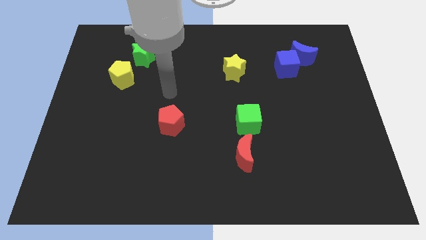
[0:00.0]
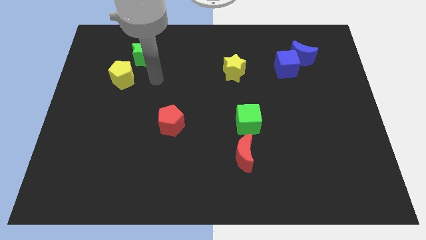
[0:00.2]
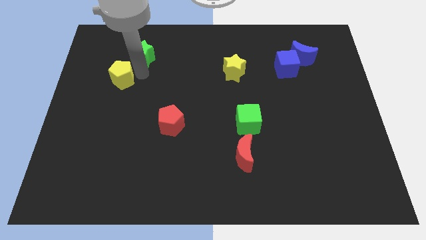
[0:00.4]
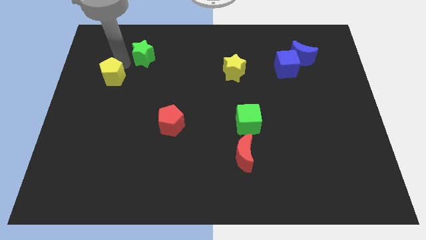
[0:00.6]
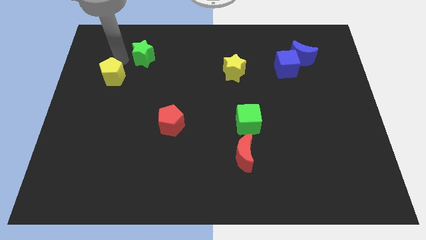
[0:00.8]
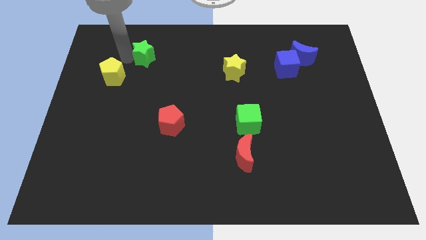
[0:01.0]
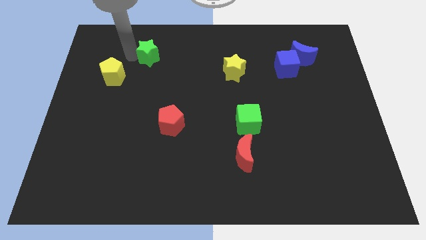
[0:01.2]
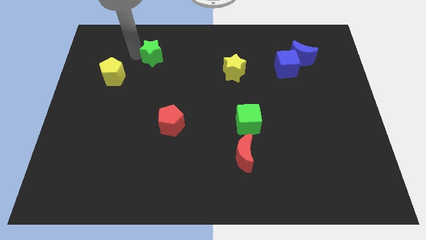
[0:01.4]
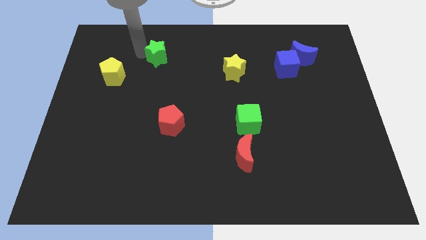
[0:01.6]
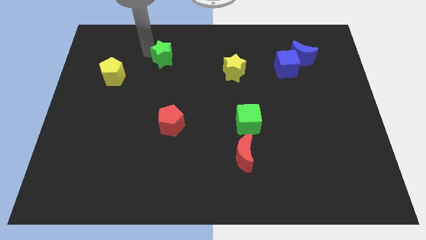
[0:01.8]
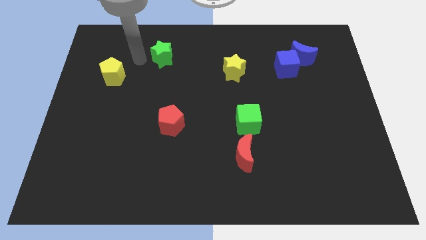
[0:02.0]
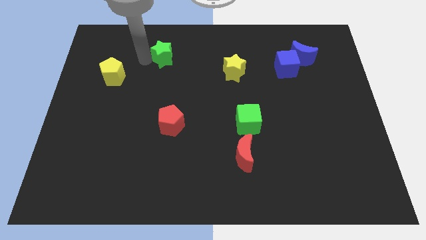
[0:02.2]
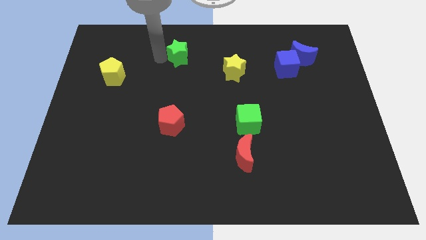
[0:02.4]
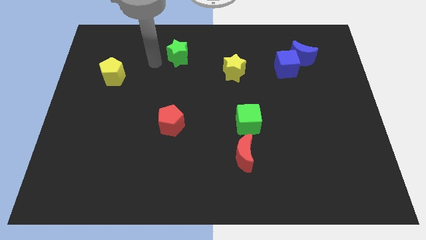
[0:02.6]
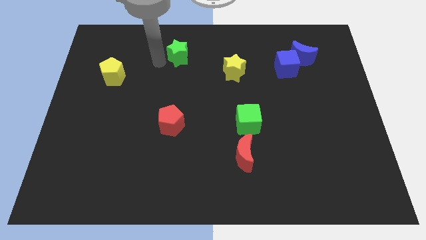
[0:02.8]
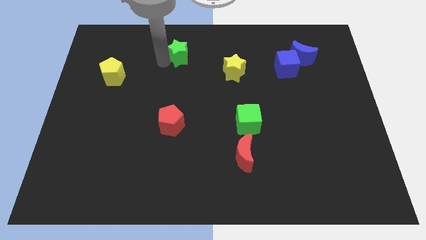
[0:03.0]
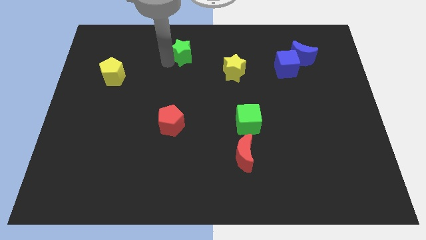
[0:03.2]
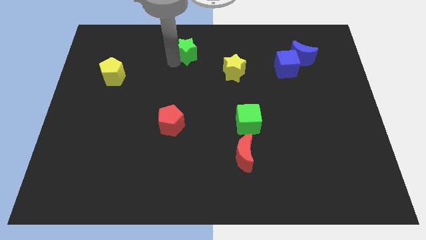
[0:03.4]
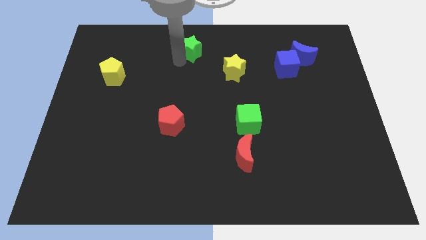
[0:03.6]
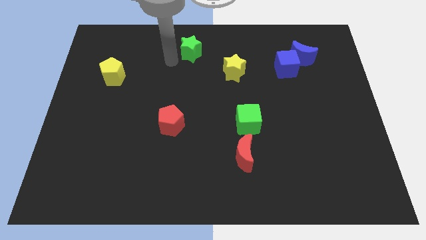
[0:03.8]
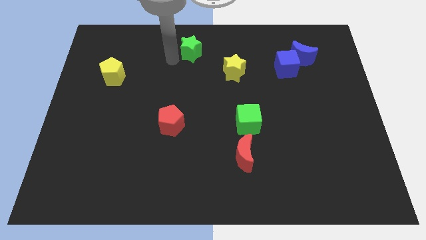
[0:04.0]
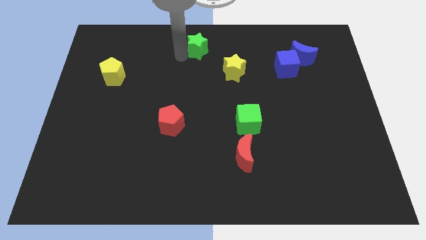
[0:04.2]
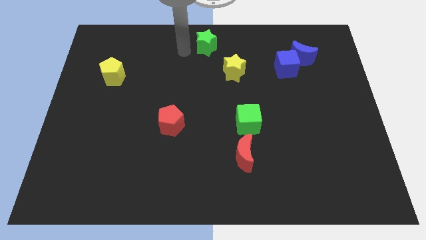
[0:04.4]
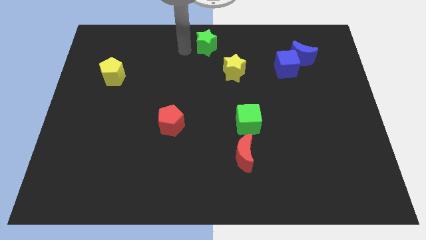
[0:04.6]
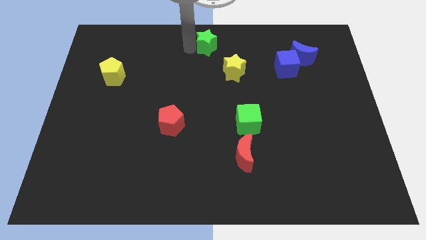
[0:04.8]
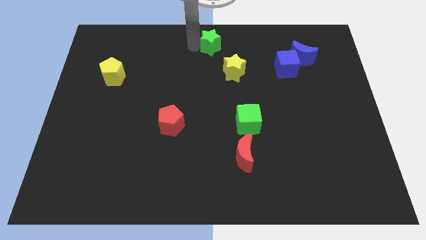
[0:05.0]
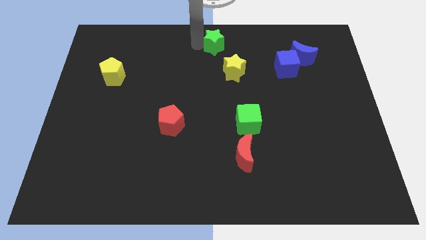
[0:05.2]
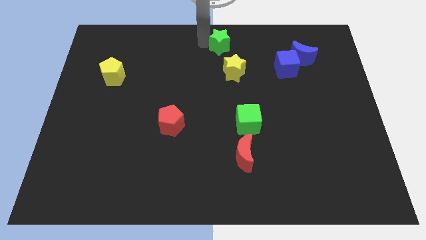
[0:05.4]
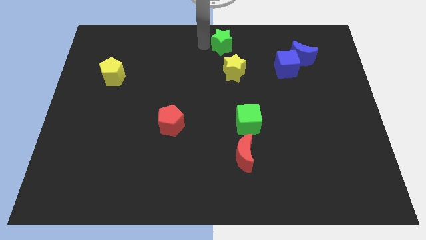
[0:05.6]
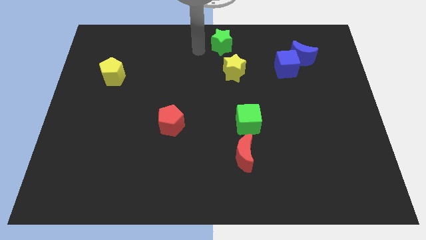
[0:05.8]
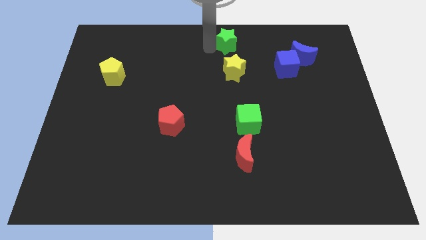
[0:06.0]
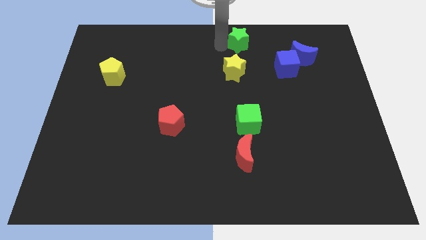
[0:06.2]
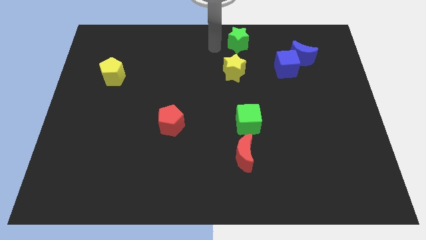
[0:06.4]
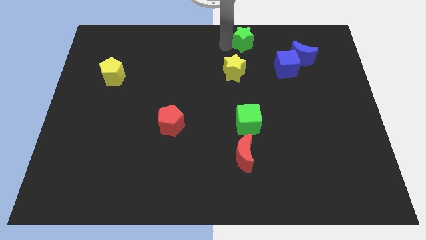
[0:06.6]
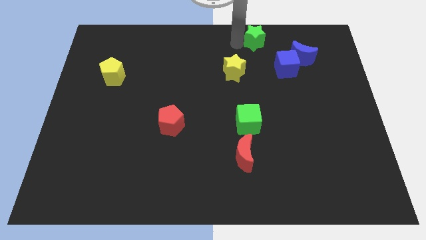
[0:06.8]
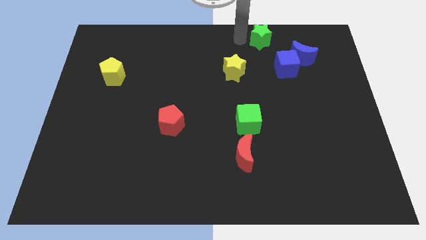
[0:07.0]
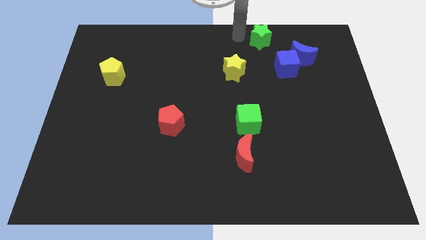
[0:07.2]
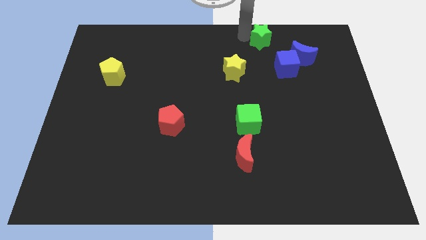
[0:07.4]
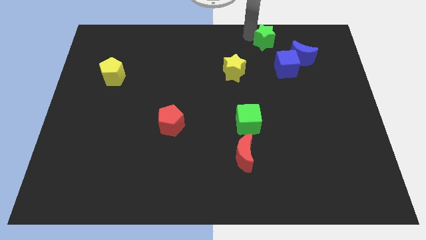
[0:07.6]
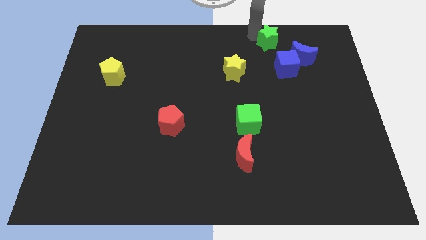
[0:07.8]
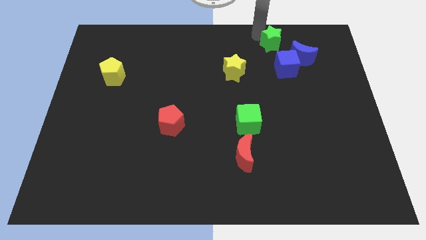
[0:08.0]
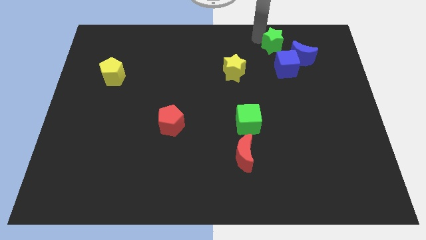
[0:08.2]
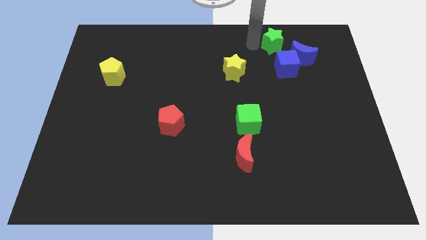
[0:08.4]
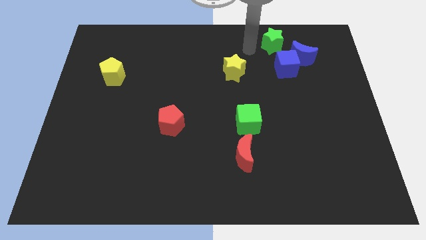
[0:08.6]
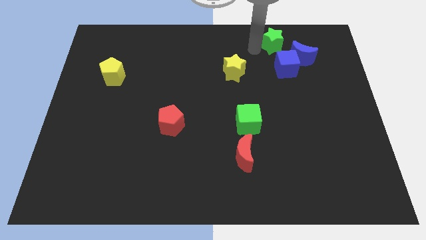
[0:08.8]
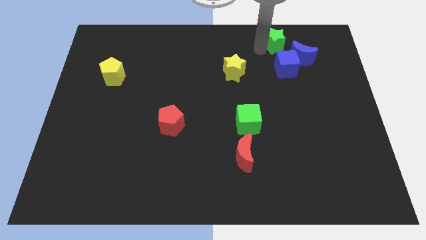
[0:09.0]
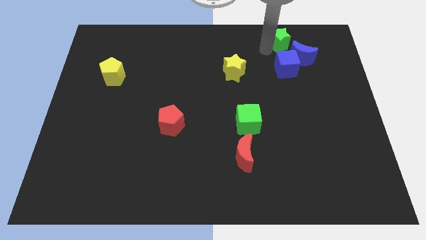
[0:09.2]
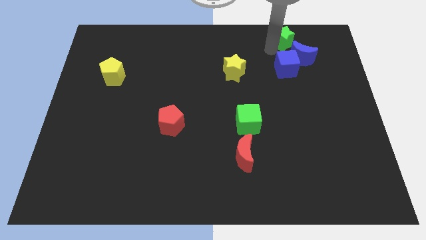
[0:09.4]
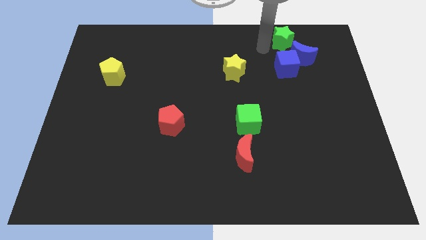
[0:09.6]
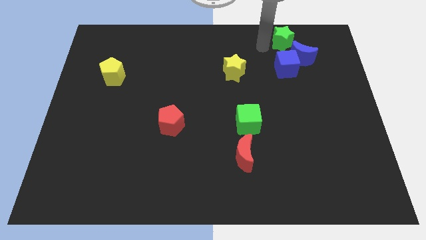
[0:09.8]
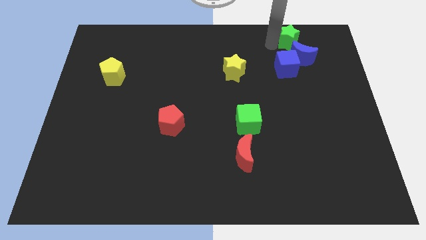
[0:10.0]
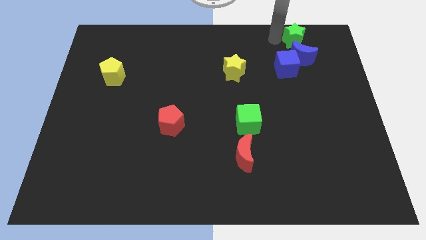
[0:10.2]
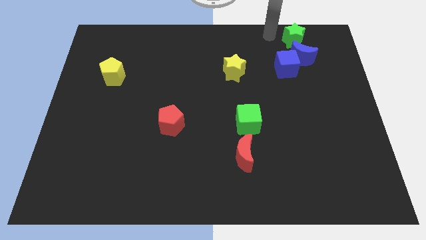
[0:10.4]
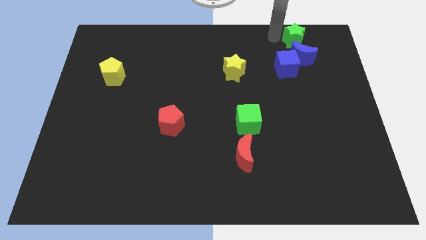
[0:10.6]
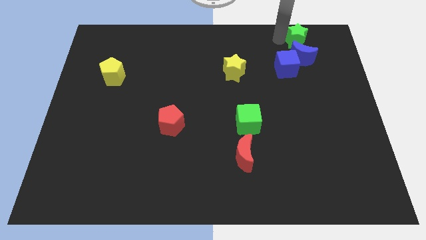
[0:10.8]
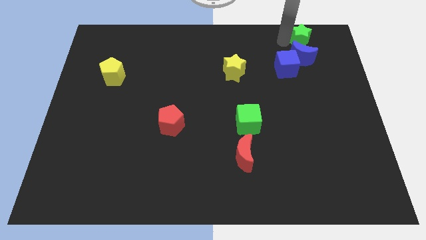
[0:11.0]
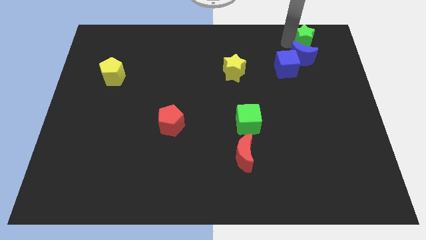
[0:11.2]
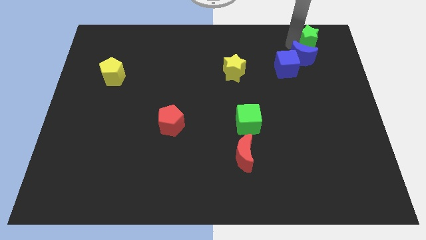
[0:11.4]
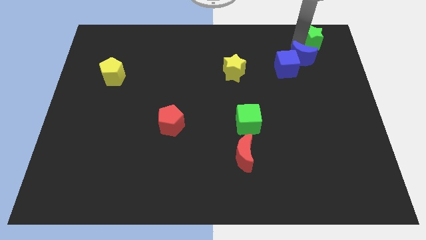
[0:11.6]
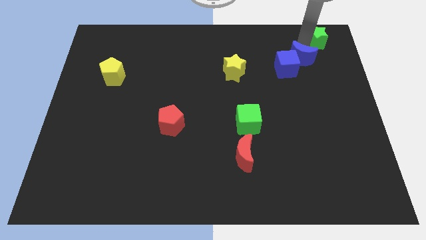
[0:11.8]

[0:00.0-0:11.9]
move the green star to the top right of the board
